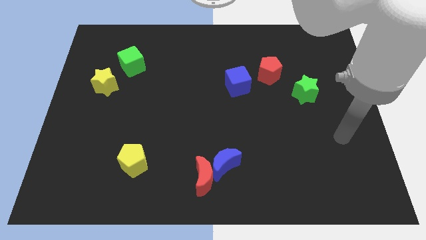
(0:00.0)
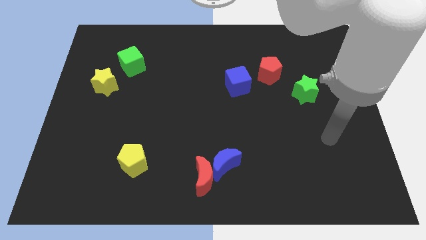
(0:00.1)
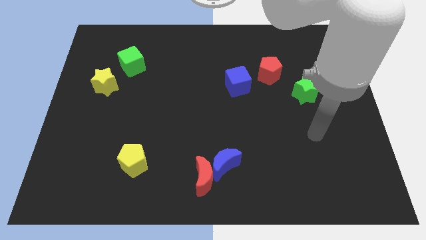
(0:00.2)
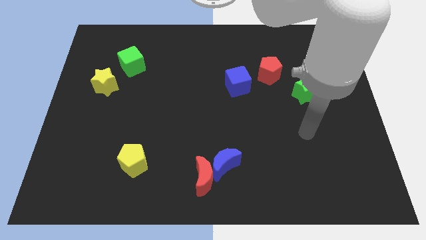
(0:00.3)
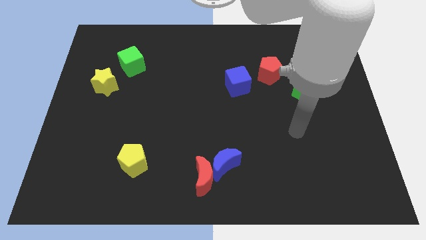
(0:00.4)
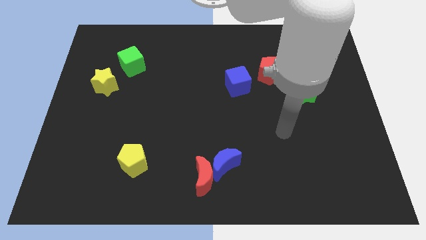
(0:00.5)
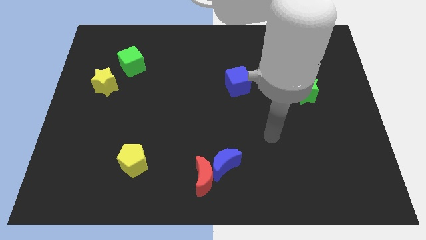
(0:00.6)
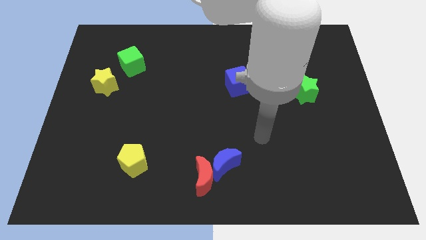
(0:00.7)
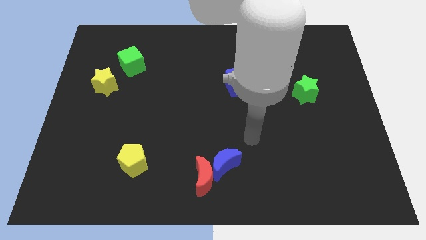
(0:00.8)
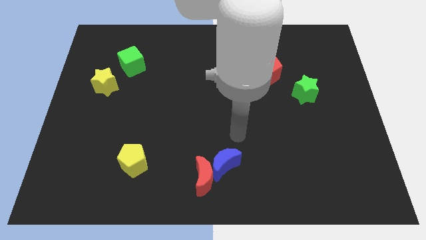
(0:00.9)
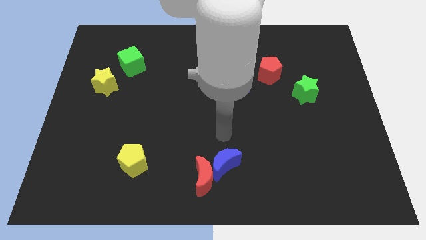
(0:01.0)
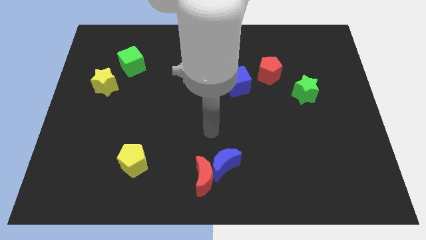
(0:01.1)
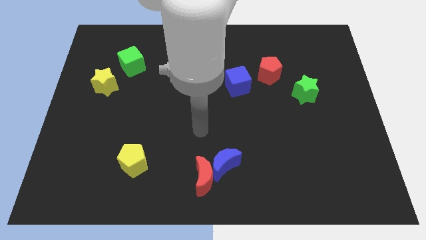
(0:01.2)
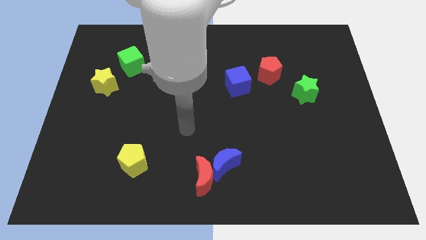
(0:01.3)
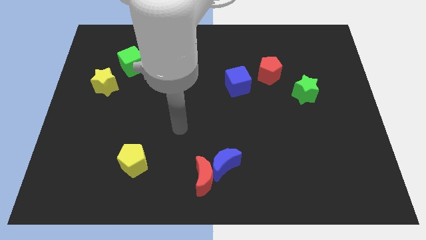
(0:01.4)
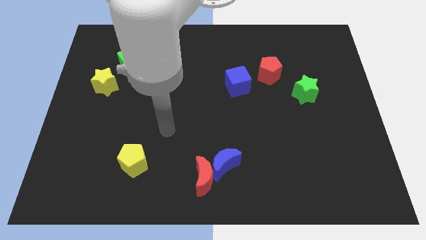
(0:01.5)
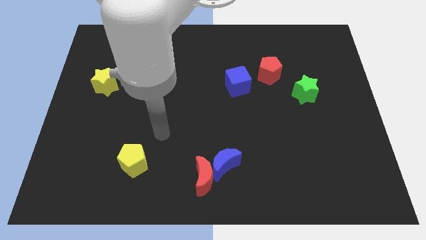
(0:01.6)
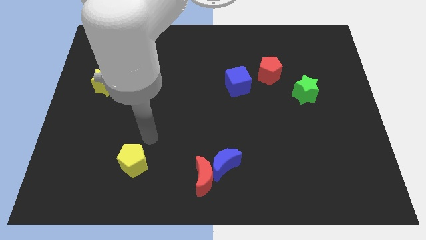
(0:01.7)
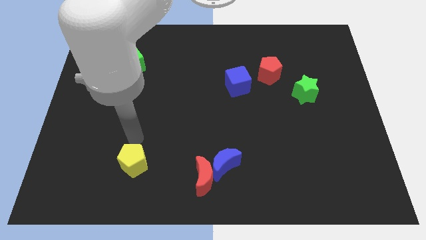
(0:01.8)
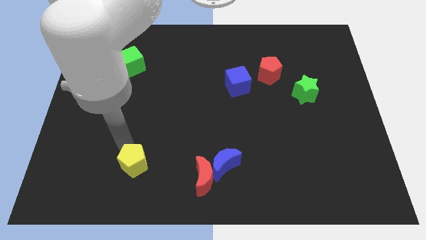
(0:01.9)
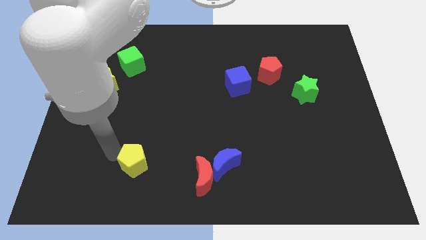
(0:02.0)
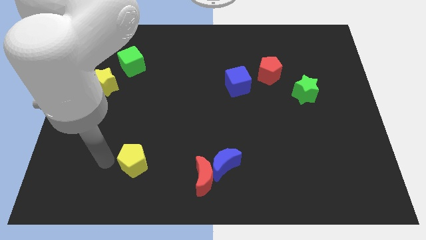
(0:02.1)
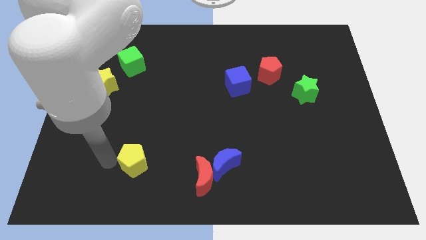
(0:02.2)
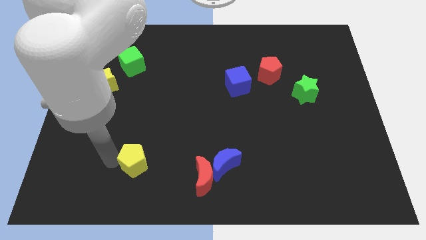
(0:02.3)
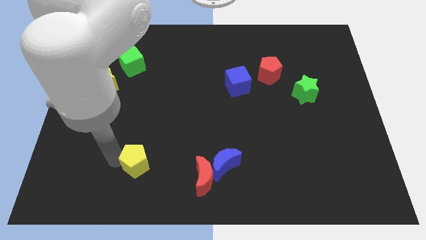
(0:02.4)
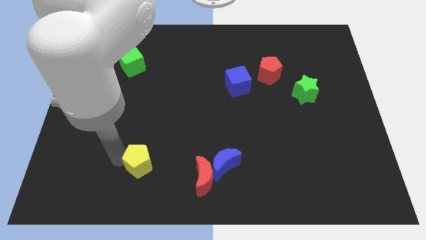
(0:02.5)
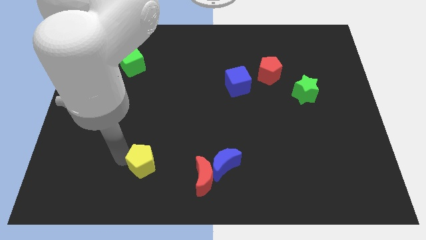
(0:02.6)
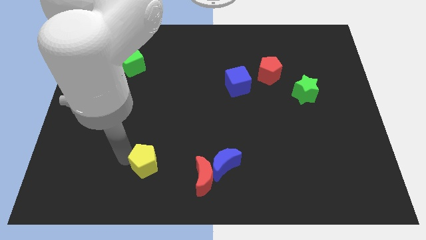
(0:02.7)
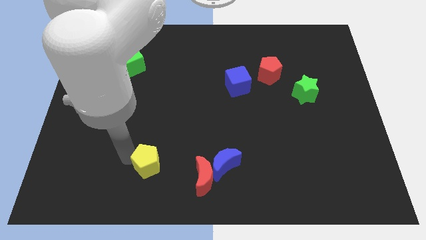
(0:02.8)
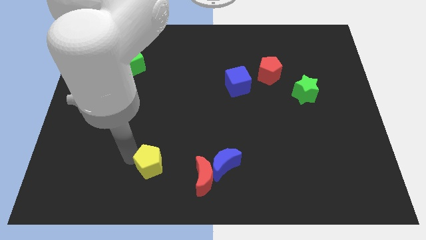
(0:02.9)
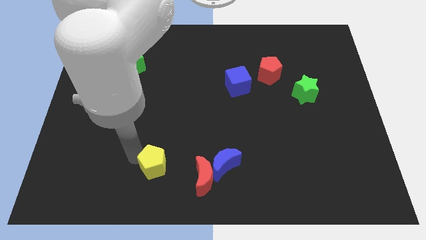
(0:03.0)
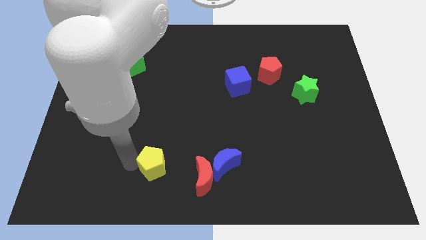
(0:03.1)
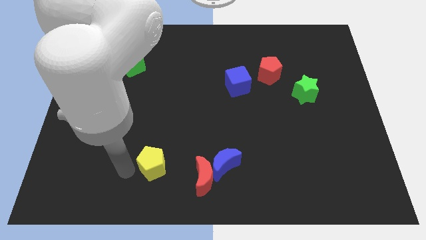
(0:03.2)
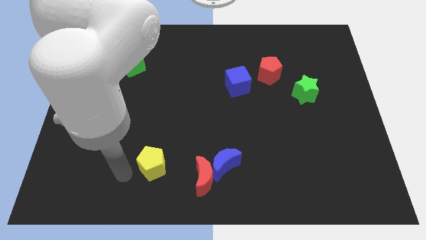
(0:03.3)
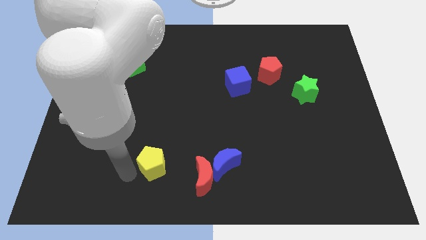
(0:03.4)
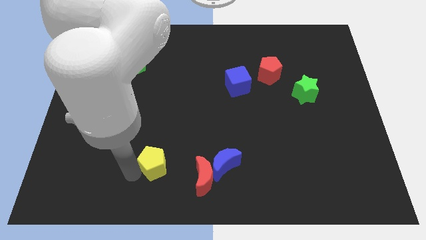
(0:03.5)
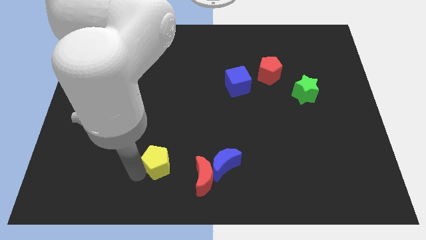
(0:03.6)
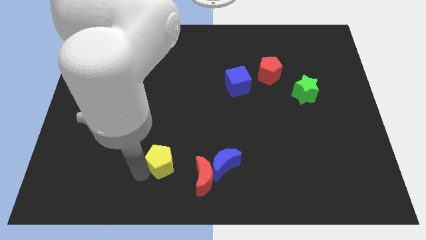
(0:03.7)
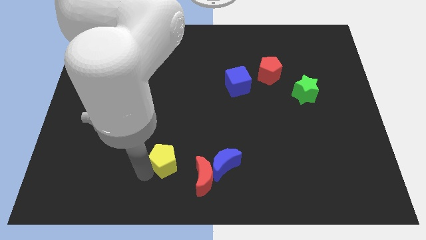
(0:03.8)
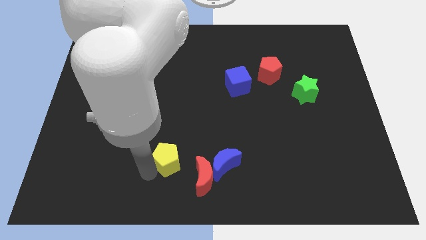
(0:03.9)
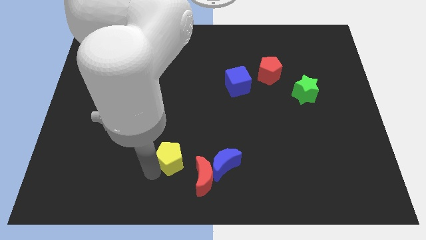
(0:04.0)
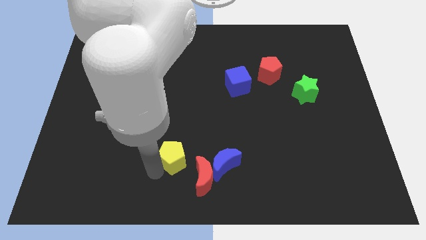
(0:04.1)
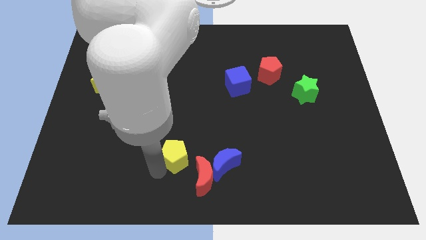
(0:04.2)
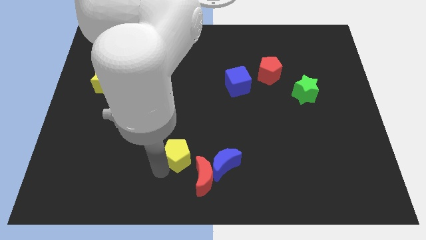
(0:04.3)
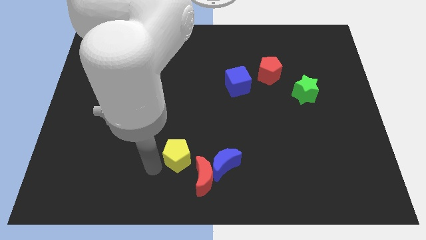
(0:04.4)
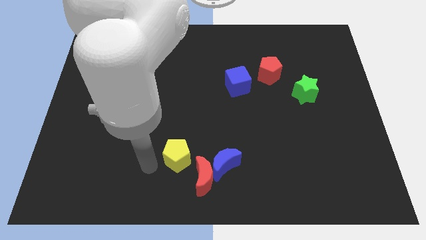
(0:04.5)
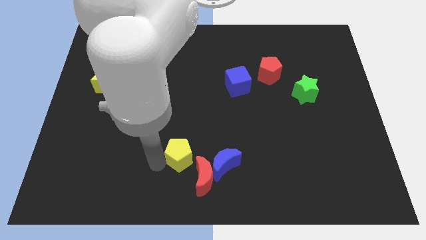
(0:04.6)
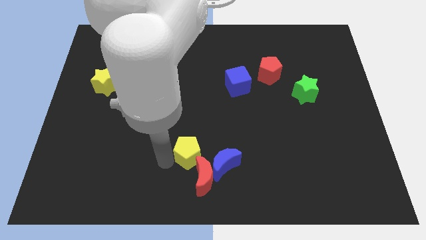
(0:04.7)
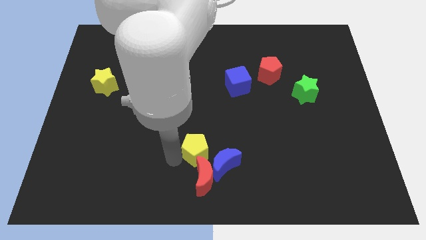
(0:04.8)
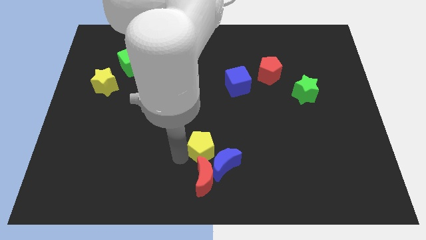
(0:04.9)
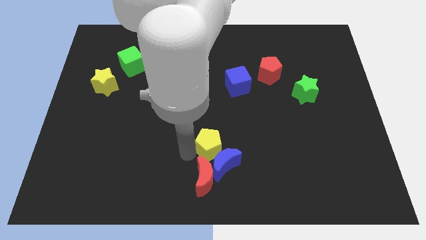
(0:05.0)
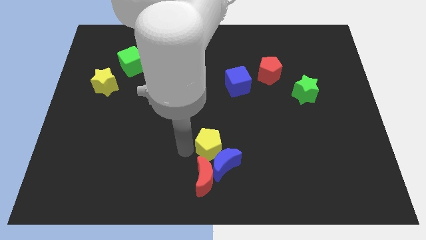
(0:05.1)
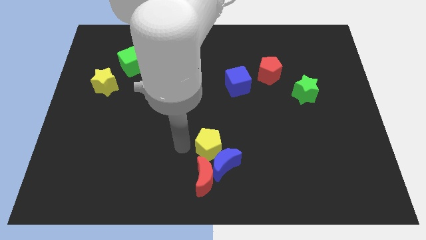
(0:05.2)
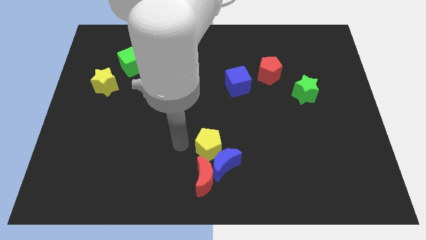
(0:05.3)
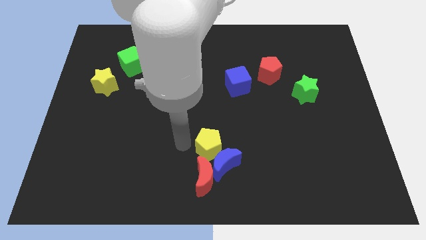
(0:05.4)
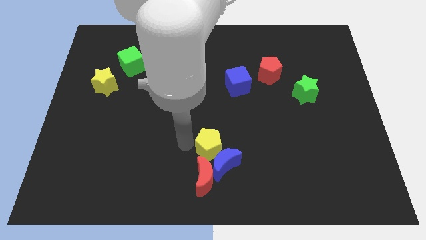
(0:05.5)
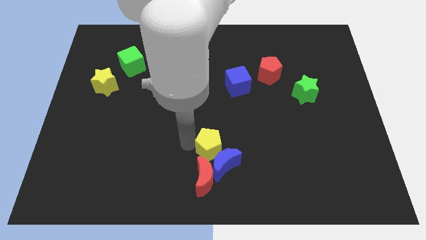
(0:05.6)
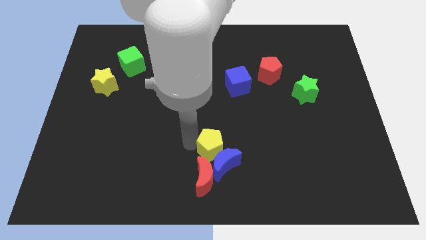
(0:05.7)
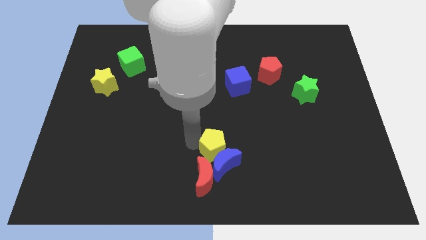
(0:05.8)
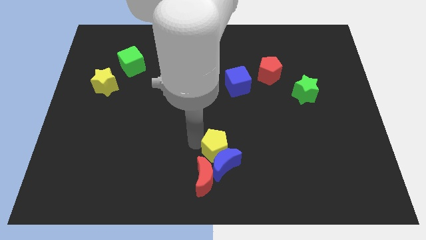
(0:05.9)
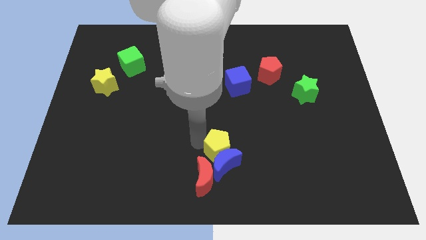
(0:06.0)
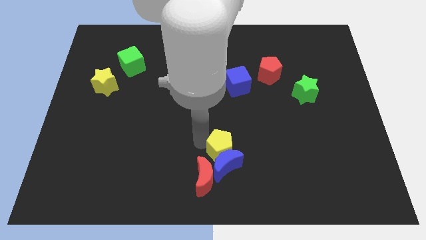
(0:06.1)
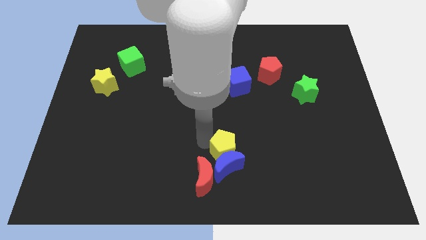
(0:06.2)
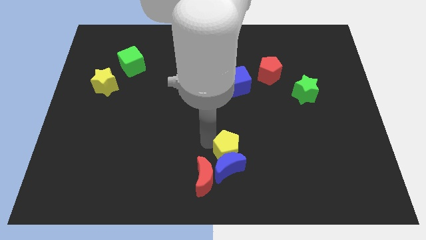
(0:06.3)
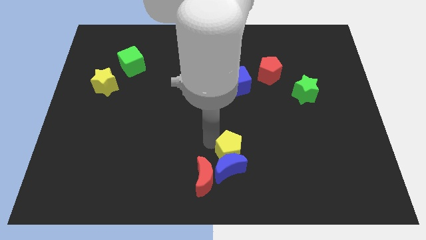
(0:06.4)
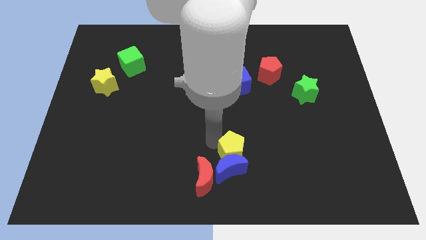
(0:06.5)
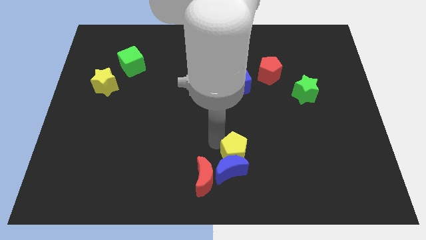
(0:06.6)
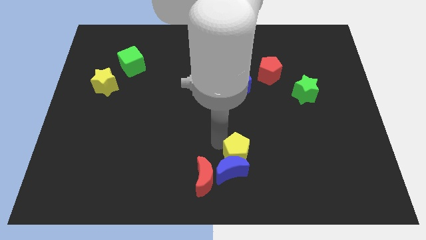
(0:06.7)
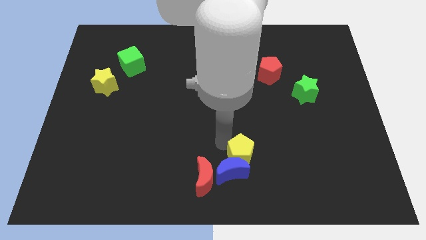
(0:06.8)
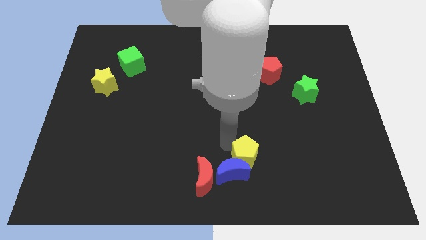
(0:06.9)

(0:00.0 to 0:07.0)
move the yellow pentagon right of the blue moon

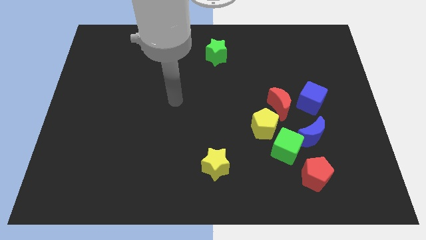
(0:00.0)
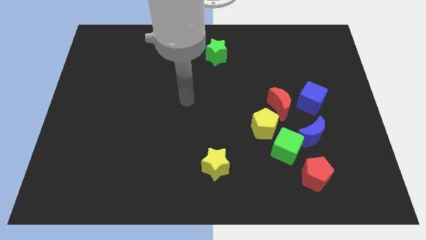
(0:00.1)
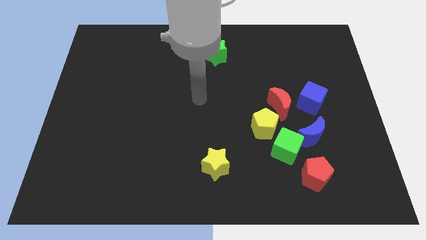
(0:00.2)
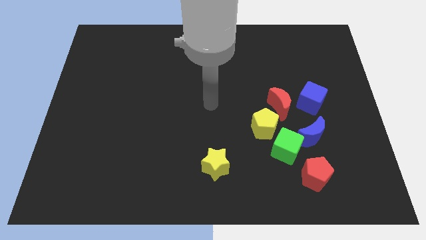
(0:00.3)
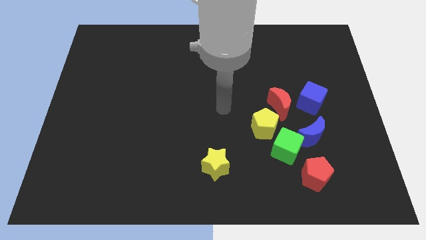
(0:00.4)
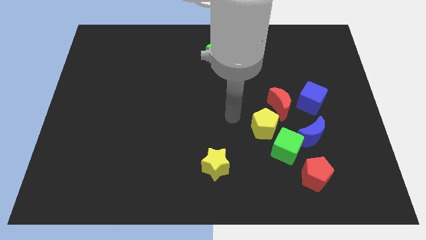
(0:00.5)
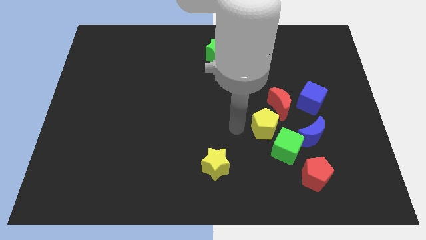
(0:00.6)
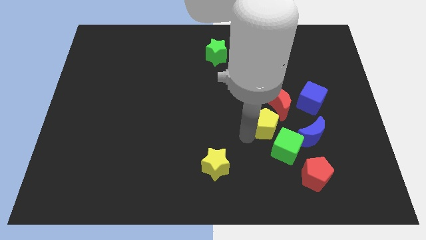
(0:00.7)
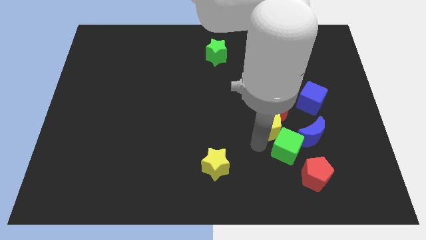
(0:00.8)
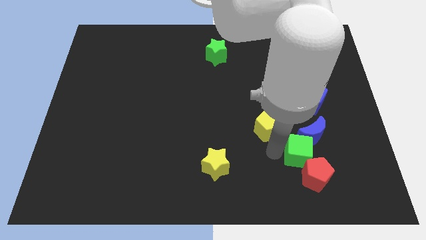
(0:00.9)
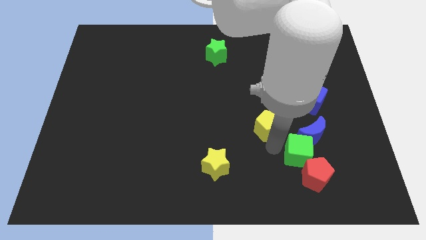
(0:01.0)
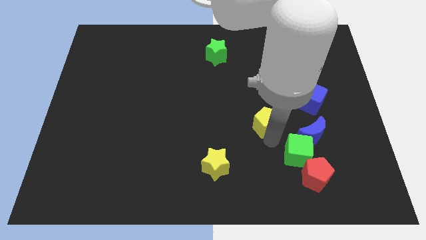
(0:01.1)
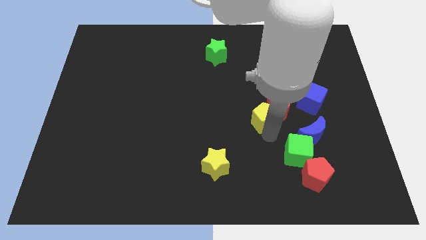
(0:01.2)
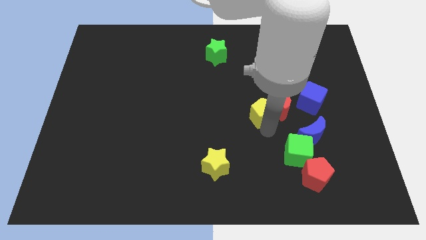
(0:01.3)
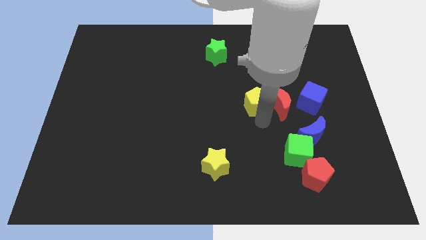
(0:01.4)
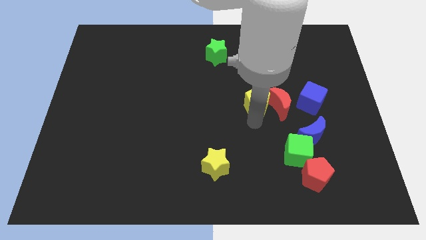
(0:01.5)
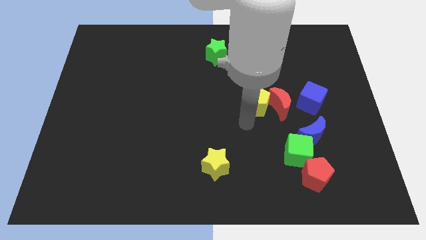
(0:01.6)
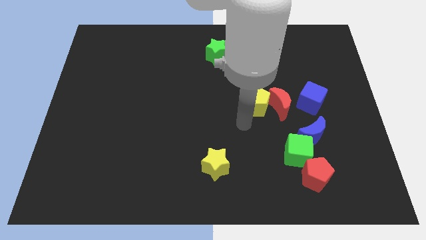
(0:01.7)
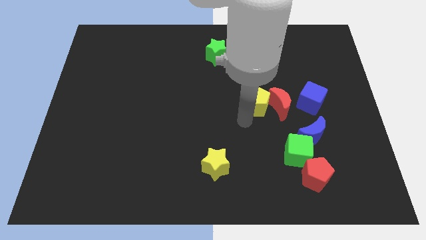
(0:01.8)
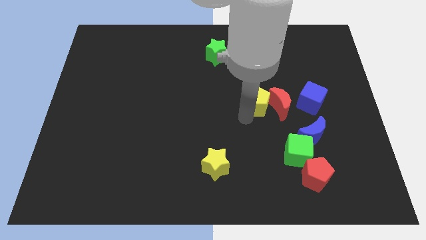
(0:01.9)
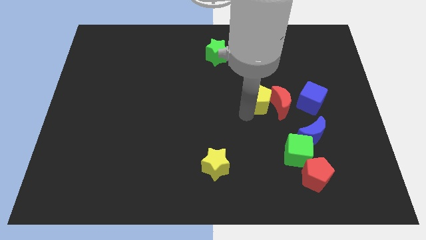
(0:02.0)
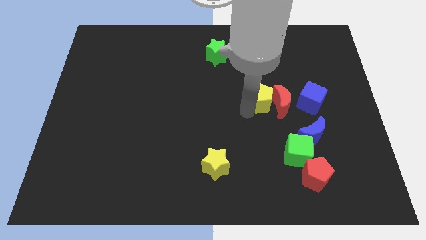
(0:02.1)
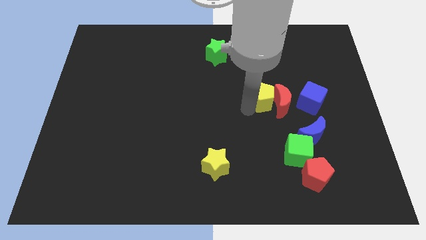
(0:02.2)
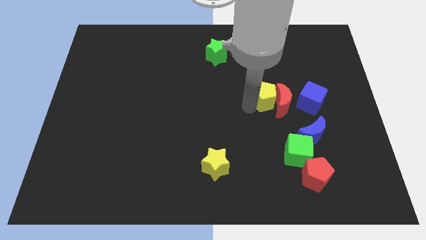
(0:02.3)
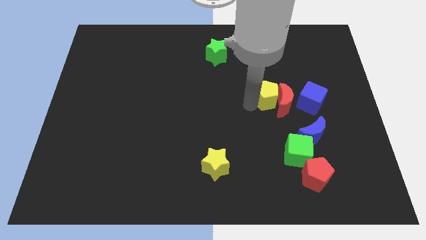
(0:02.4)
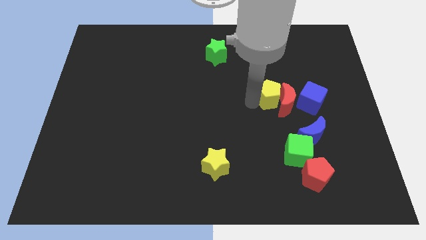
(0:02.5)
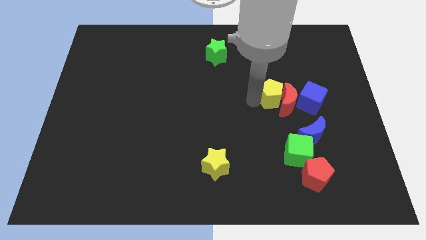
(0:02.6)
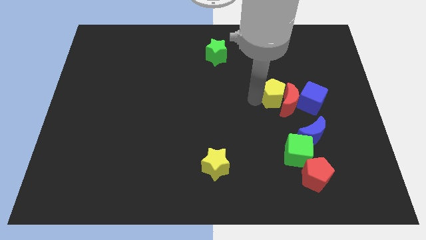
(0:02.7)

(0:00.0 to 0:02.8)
slide the yellow pentagon to the top of the red moon
